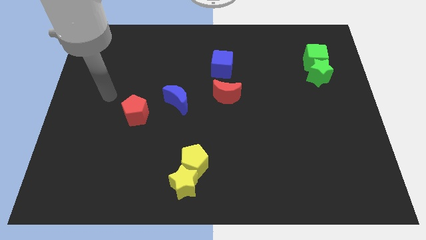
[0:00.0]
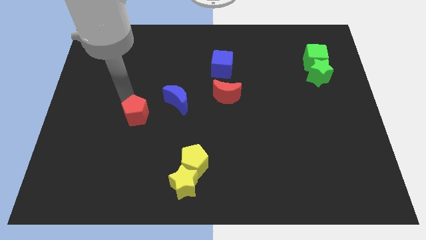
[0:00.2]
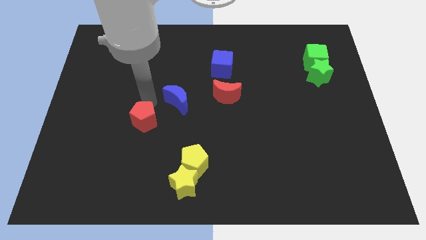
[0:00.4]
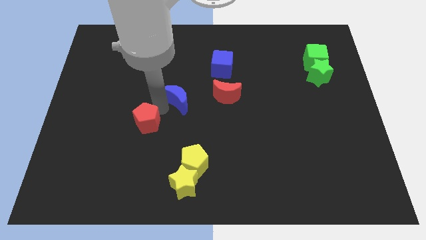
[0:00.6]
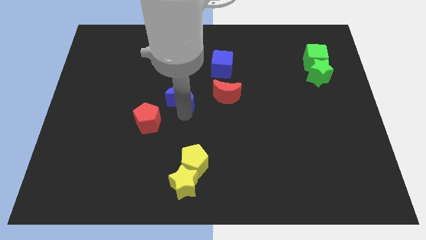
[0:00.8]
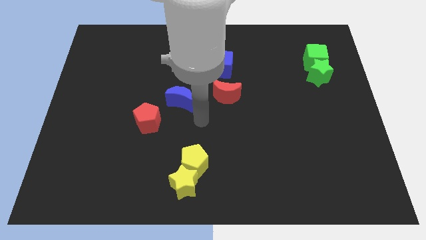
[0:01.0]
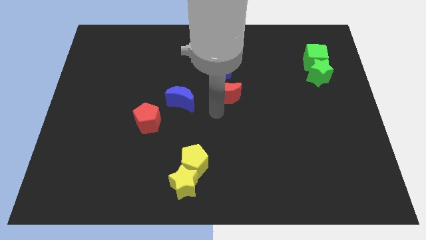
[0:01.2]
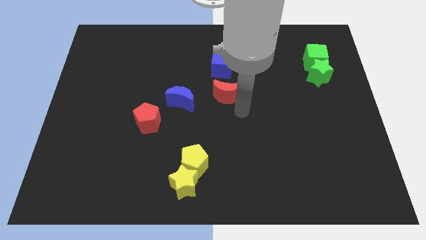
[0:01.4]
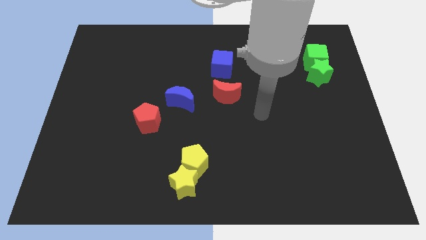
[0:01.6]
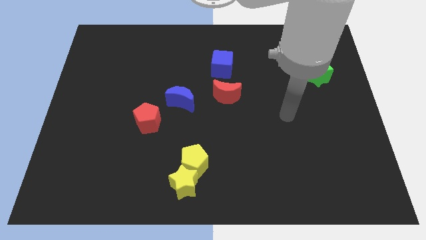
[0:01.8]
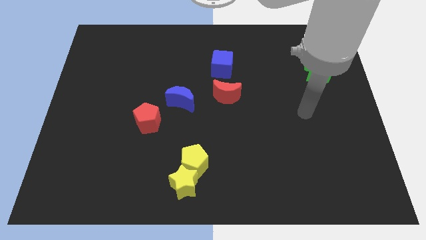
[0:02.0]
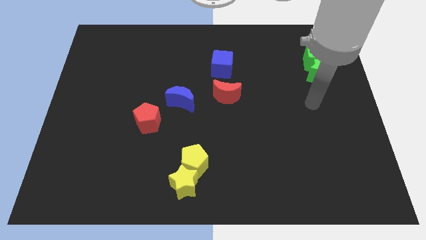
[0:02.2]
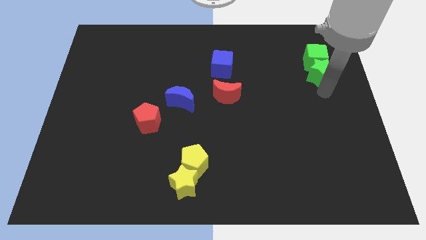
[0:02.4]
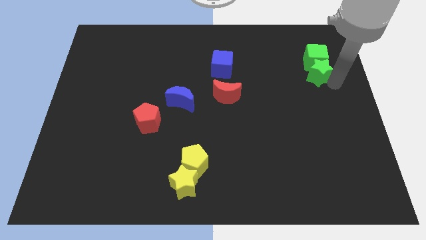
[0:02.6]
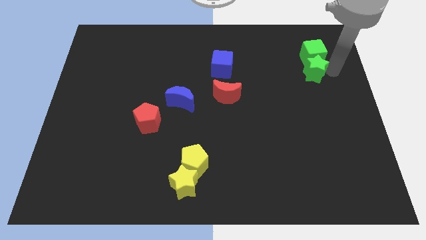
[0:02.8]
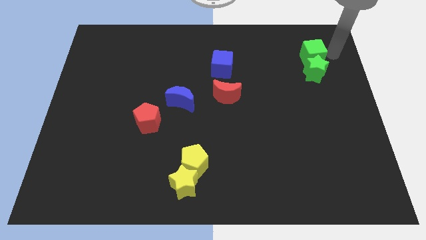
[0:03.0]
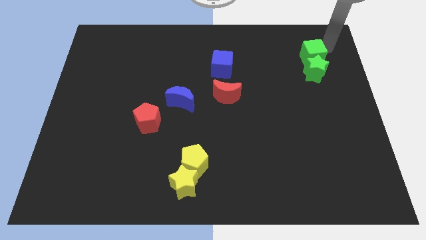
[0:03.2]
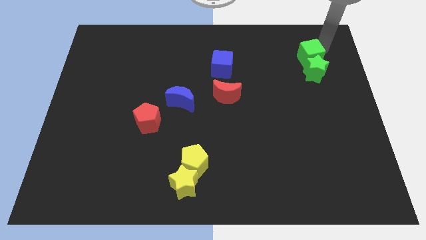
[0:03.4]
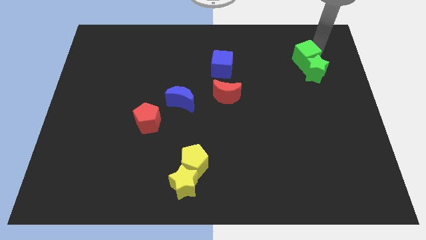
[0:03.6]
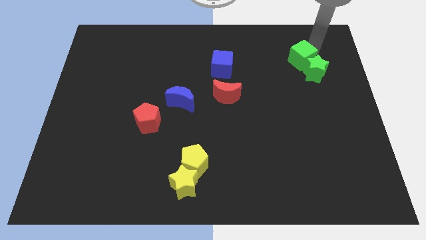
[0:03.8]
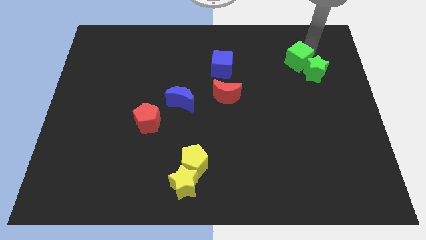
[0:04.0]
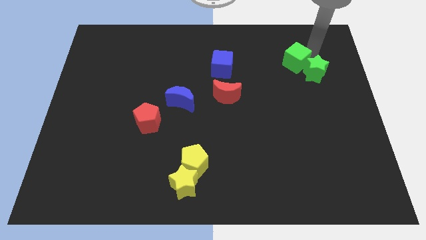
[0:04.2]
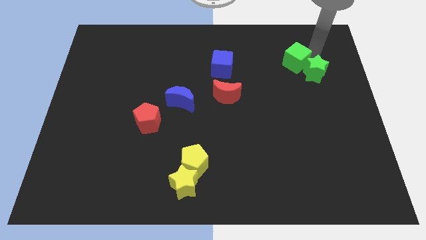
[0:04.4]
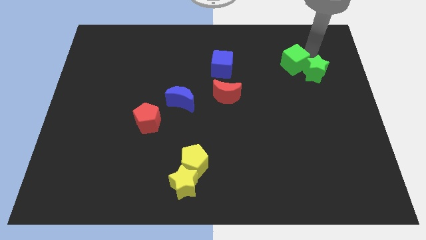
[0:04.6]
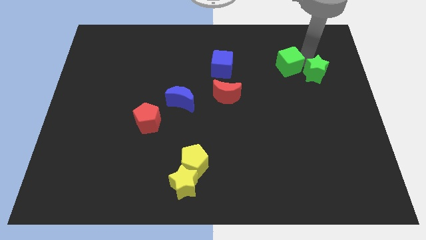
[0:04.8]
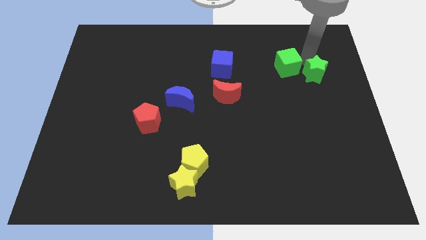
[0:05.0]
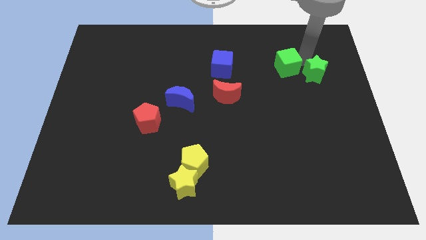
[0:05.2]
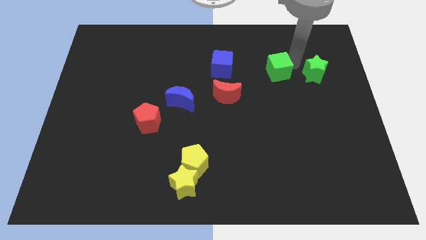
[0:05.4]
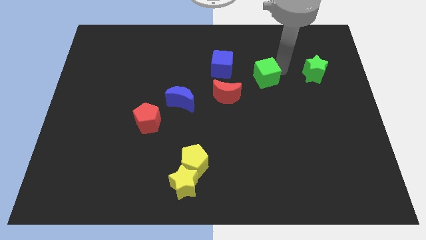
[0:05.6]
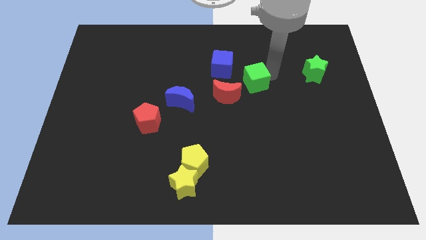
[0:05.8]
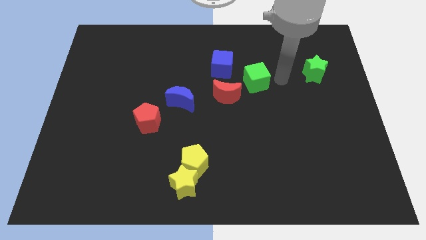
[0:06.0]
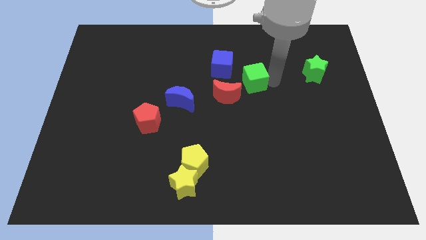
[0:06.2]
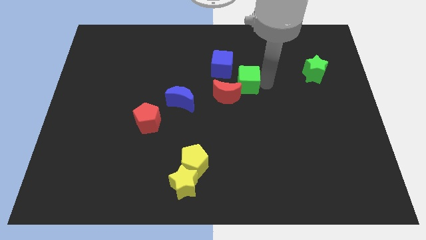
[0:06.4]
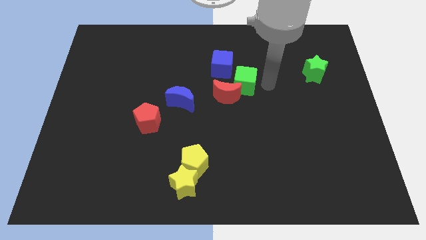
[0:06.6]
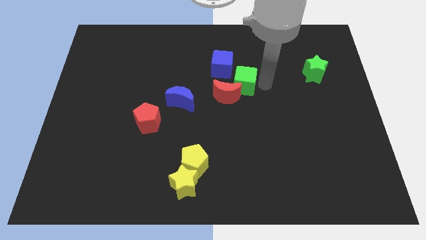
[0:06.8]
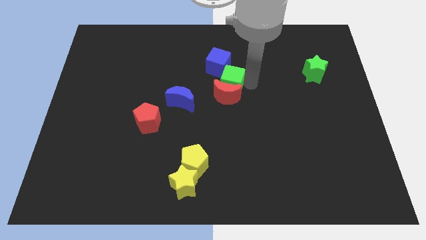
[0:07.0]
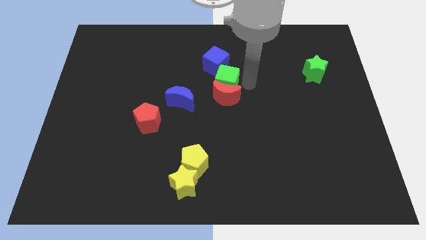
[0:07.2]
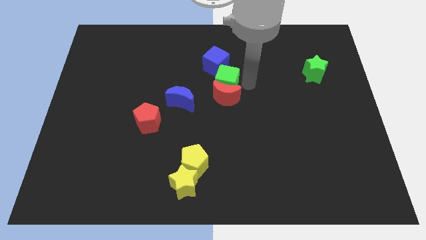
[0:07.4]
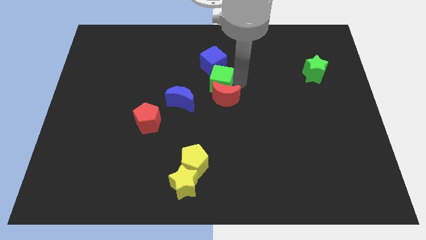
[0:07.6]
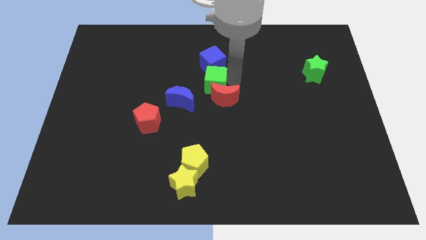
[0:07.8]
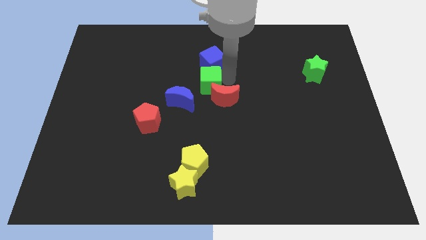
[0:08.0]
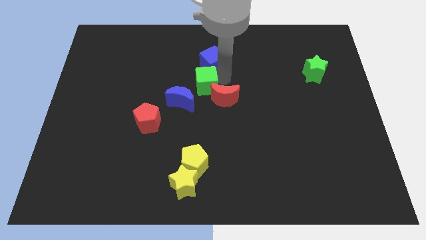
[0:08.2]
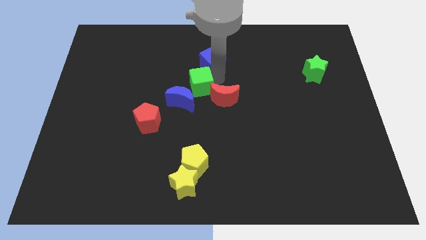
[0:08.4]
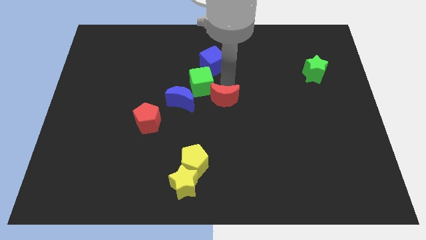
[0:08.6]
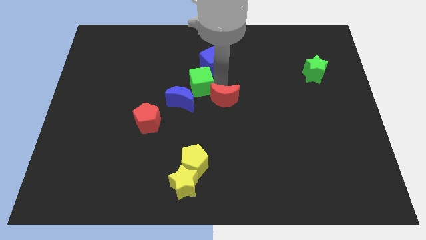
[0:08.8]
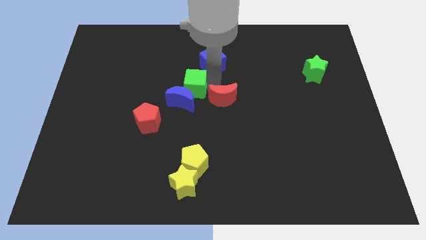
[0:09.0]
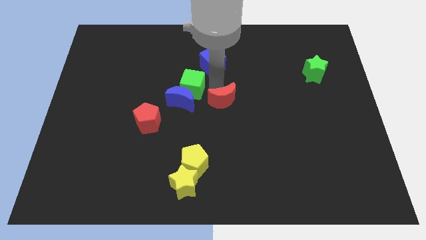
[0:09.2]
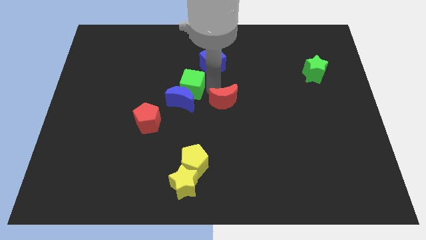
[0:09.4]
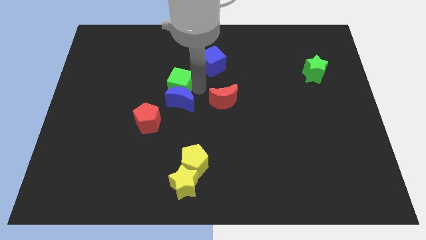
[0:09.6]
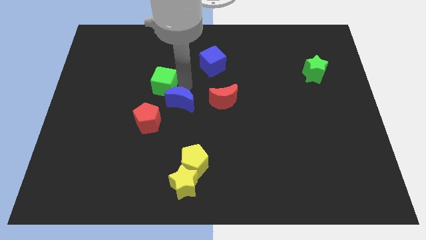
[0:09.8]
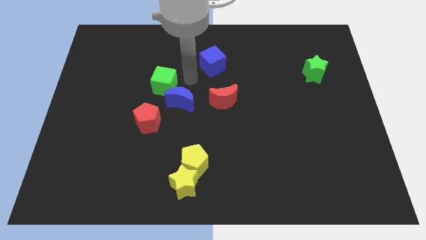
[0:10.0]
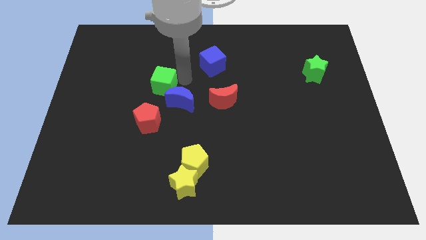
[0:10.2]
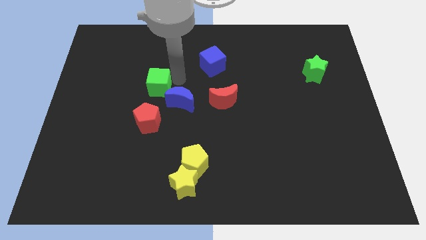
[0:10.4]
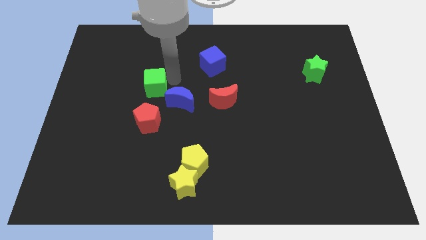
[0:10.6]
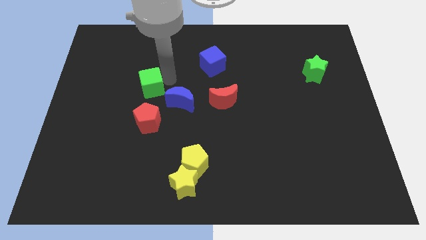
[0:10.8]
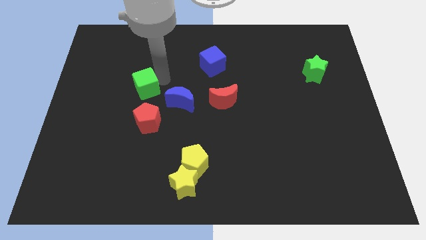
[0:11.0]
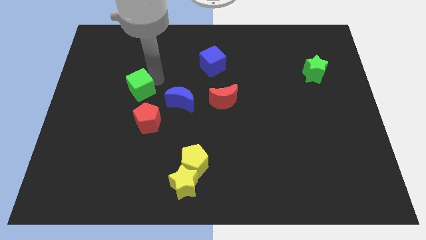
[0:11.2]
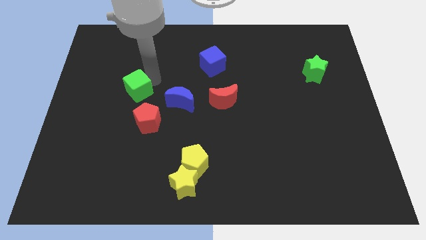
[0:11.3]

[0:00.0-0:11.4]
push the green cube to the top left of the red pentagon

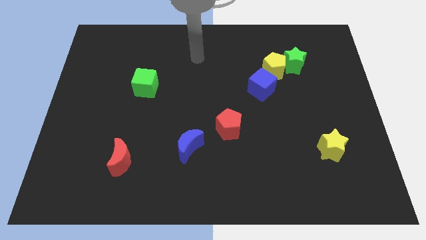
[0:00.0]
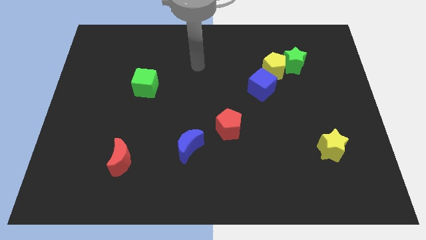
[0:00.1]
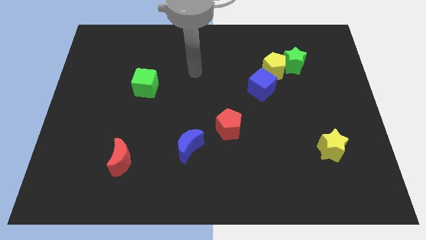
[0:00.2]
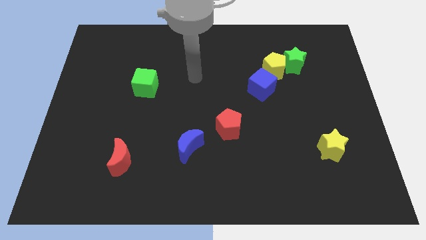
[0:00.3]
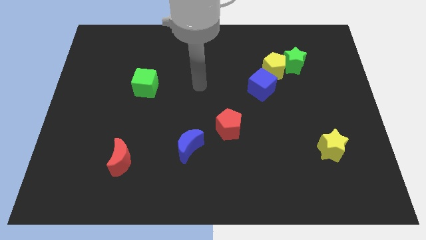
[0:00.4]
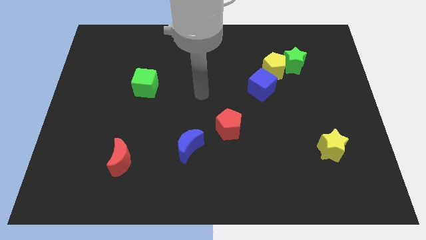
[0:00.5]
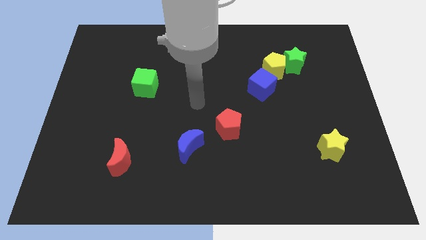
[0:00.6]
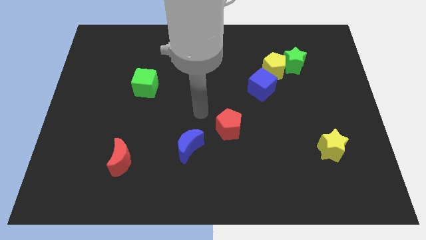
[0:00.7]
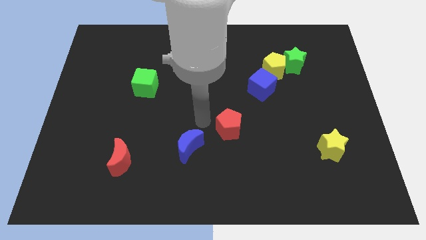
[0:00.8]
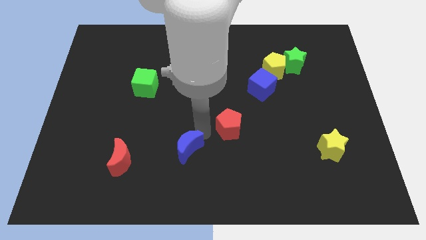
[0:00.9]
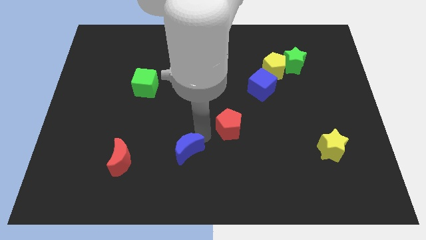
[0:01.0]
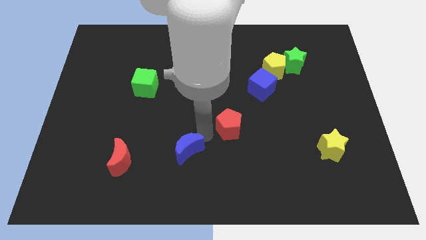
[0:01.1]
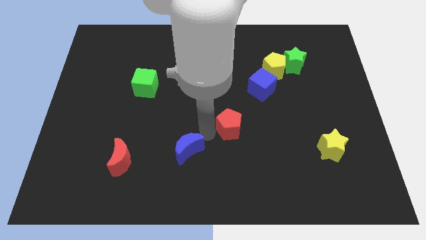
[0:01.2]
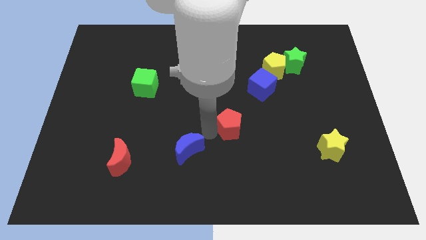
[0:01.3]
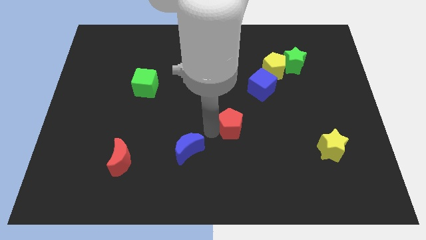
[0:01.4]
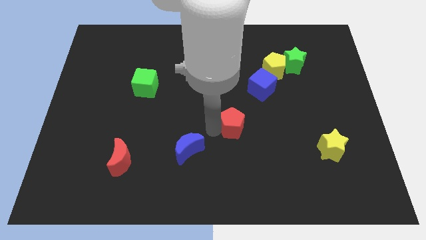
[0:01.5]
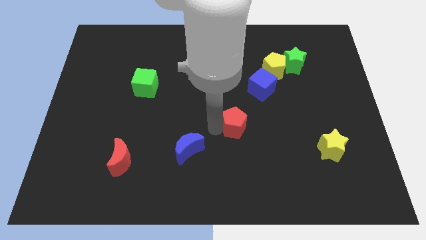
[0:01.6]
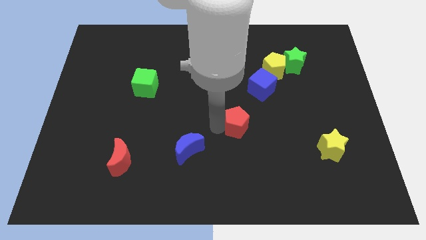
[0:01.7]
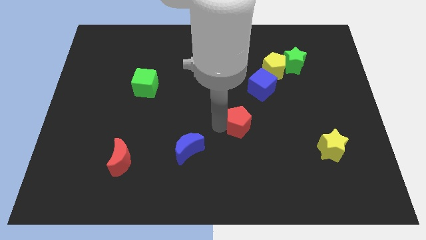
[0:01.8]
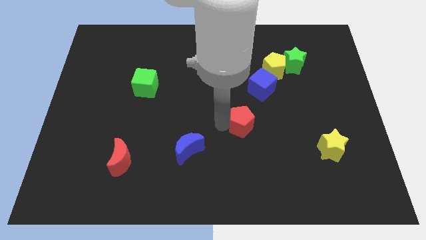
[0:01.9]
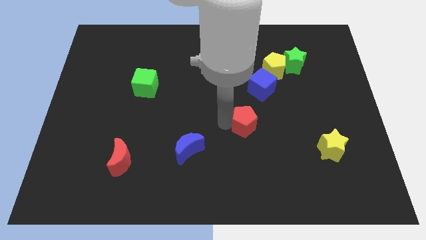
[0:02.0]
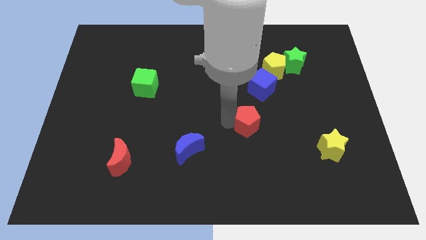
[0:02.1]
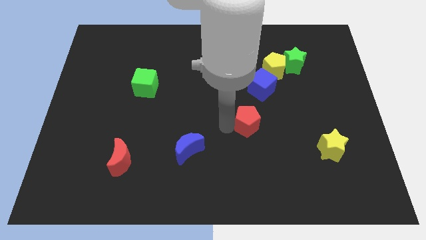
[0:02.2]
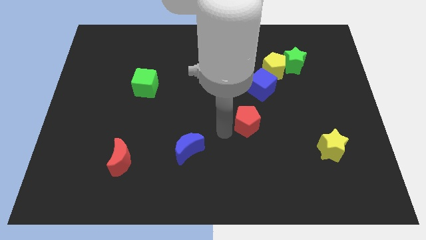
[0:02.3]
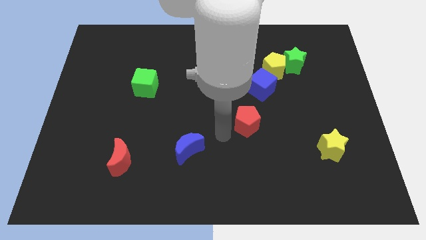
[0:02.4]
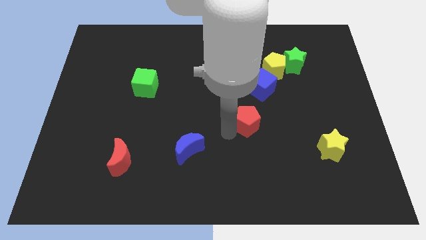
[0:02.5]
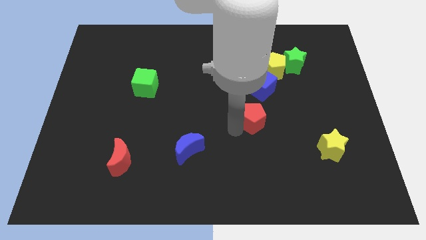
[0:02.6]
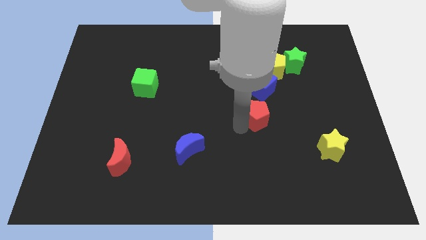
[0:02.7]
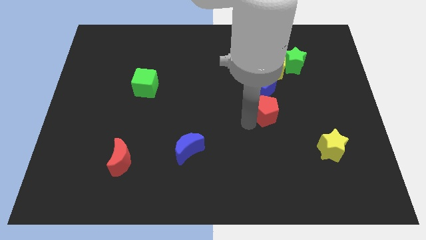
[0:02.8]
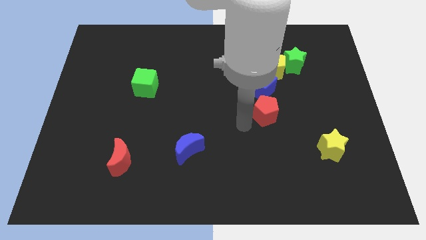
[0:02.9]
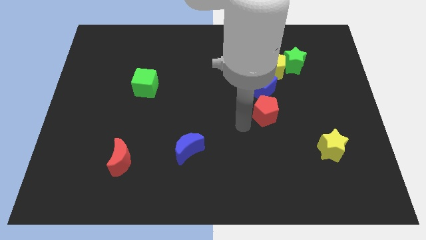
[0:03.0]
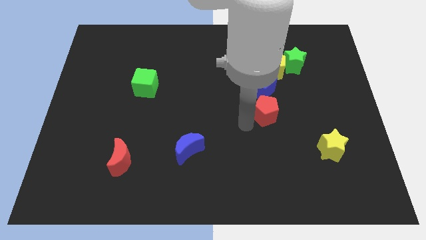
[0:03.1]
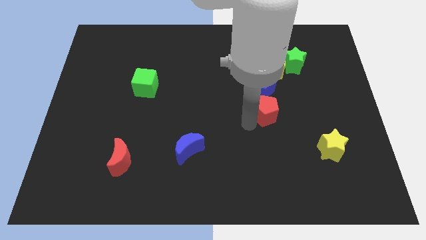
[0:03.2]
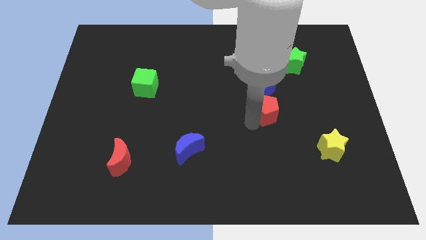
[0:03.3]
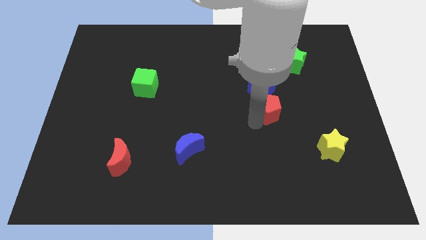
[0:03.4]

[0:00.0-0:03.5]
push the red pentagon to the bottom right side of the blue cube
